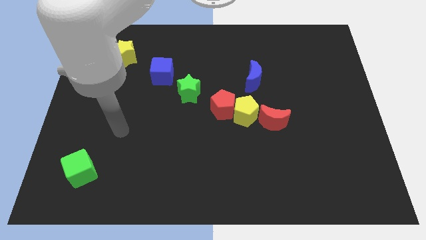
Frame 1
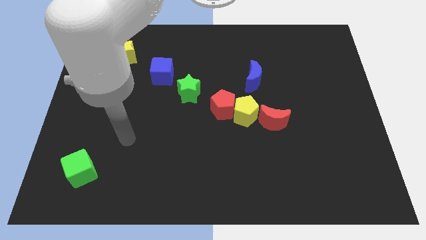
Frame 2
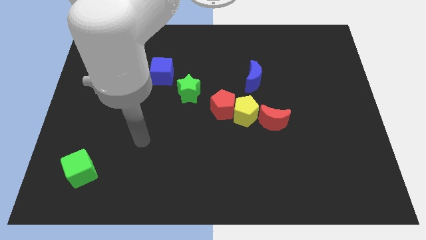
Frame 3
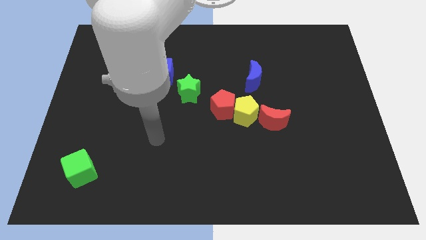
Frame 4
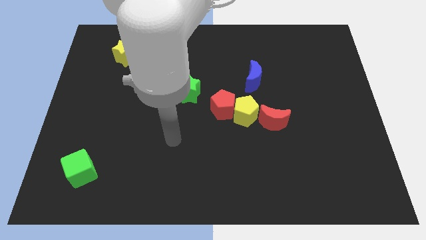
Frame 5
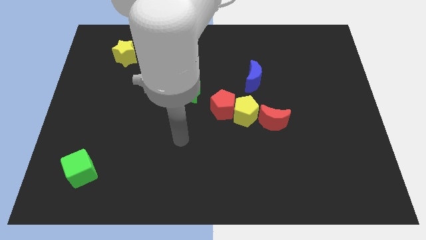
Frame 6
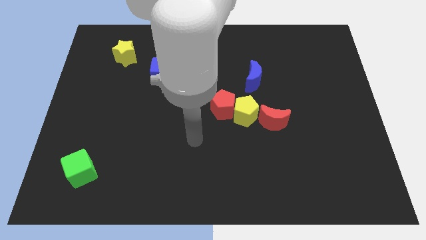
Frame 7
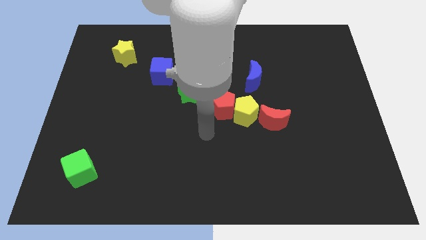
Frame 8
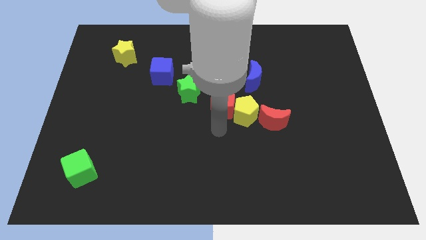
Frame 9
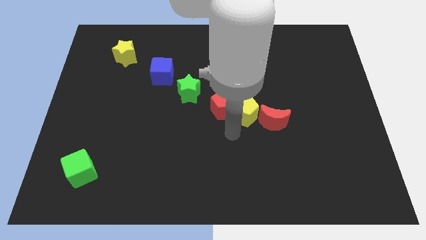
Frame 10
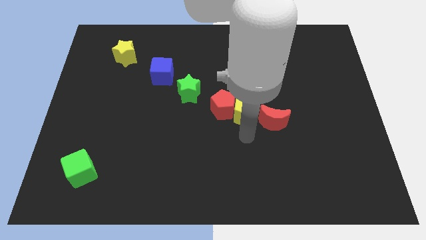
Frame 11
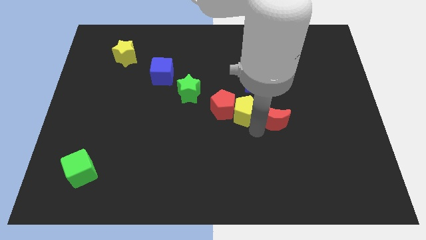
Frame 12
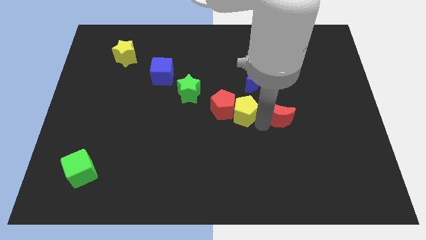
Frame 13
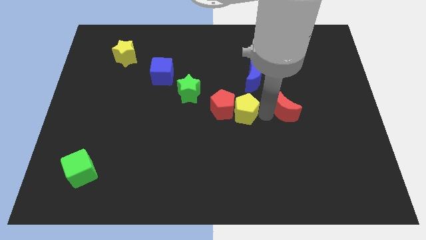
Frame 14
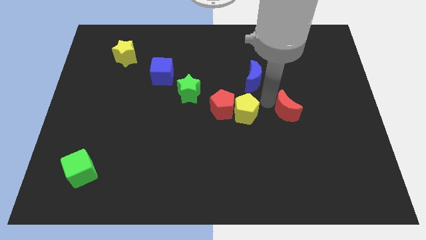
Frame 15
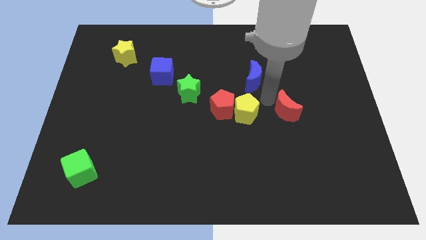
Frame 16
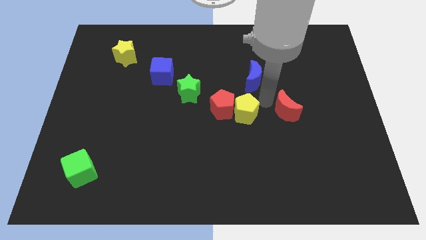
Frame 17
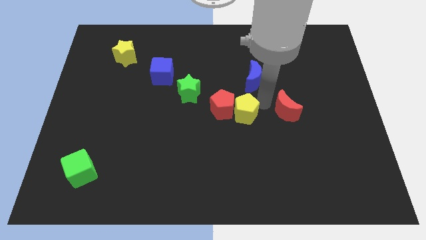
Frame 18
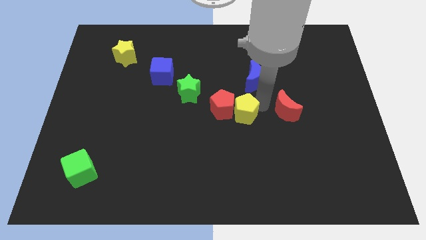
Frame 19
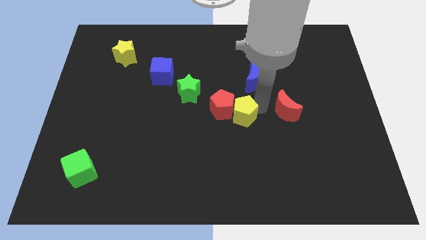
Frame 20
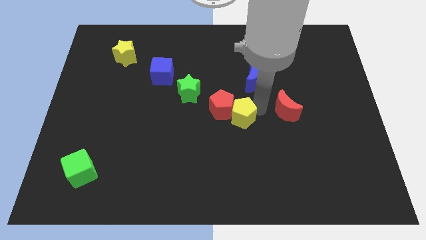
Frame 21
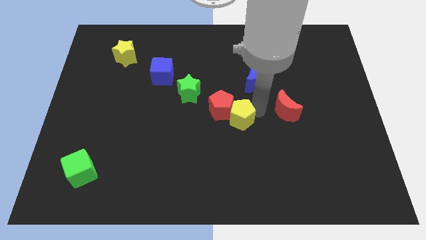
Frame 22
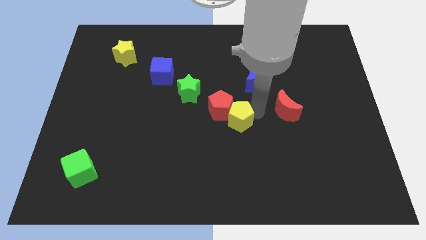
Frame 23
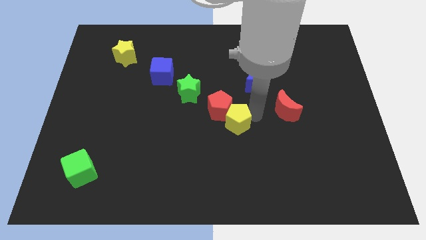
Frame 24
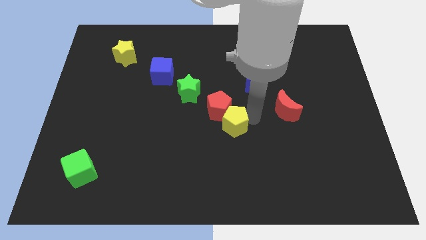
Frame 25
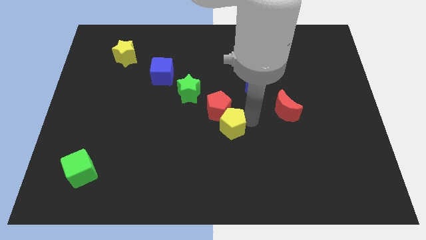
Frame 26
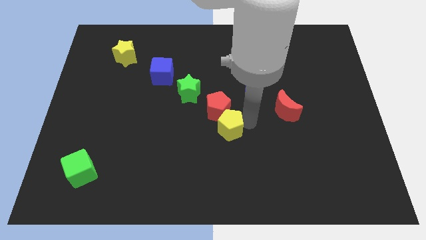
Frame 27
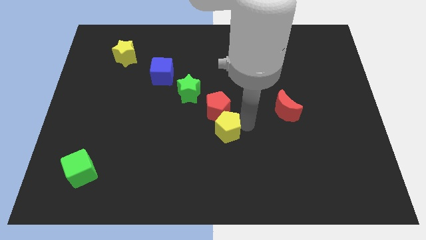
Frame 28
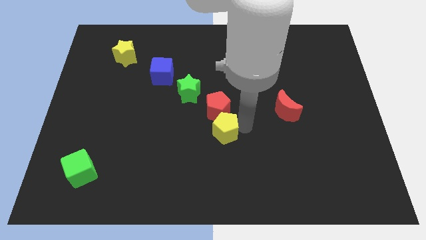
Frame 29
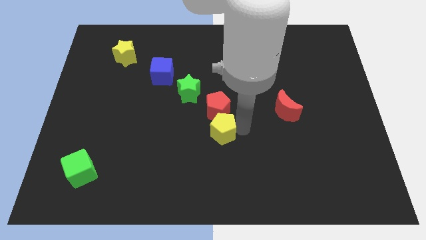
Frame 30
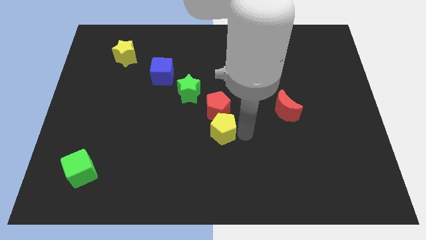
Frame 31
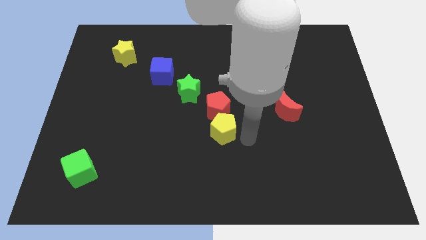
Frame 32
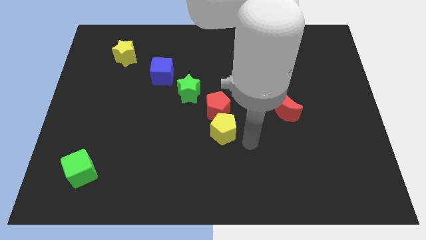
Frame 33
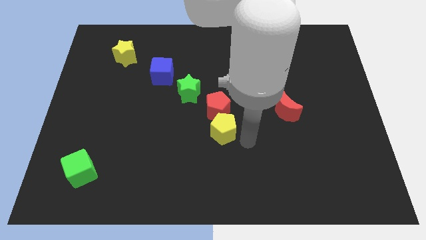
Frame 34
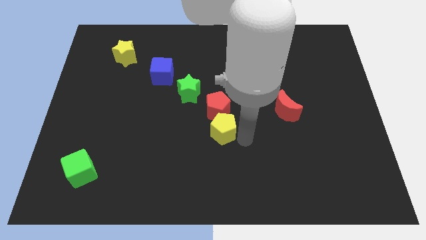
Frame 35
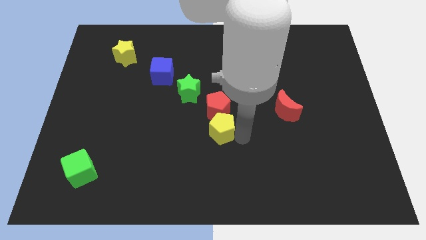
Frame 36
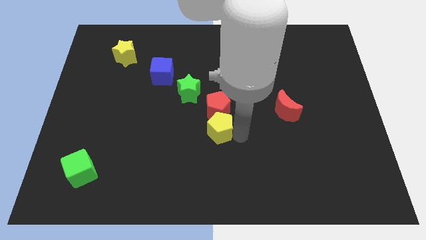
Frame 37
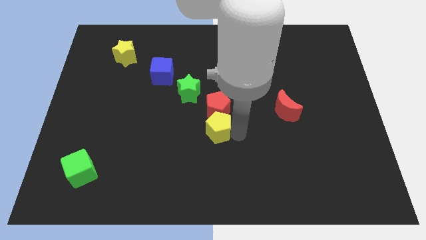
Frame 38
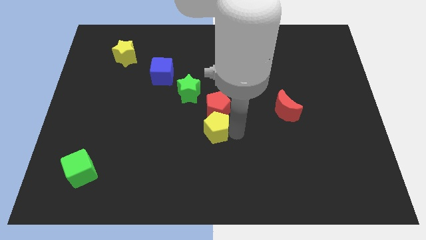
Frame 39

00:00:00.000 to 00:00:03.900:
move the yellow pentagon away from the red pentagon and red moon

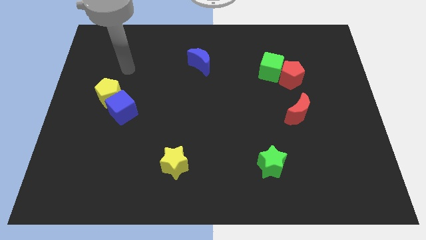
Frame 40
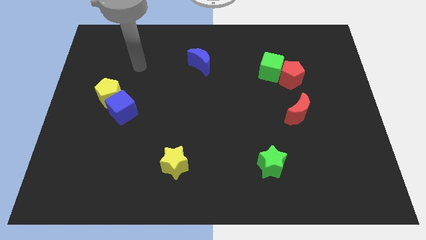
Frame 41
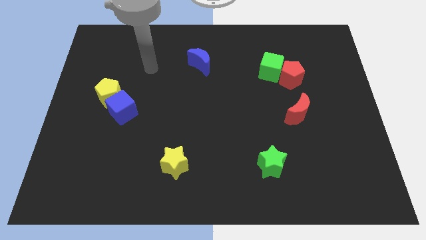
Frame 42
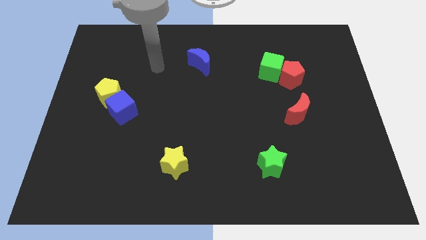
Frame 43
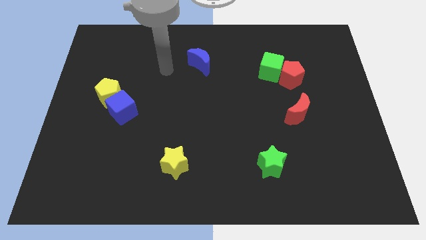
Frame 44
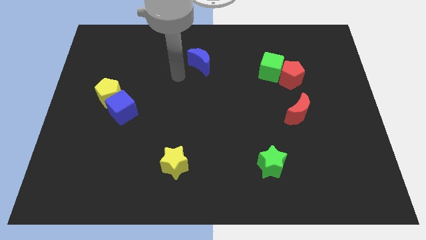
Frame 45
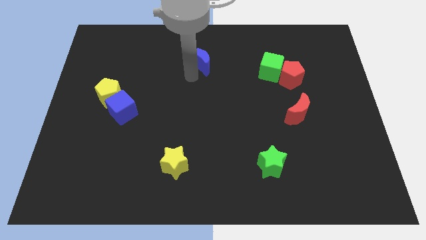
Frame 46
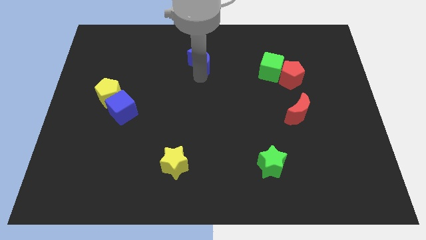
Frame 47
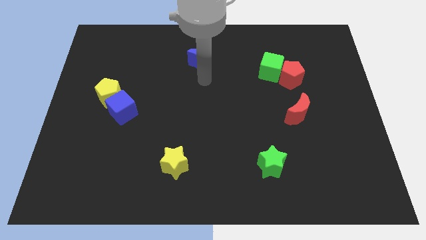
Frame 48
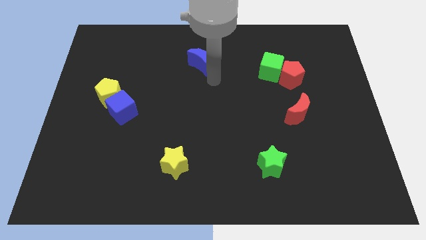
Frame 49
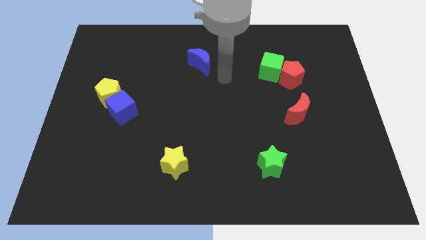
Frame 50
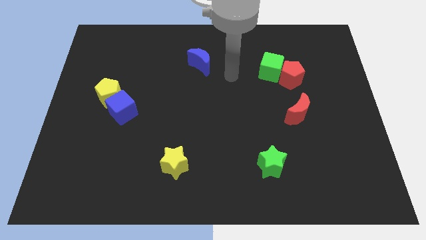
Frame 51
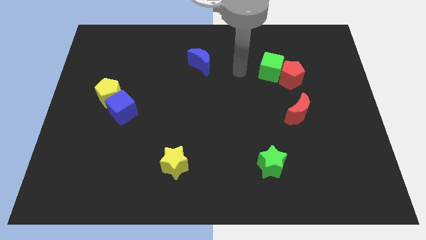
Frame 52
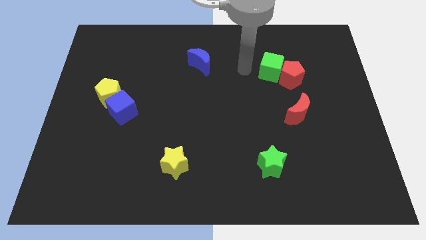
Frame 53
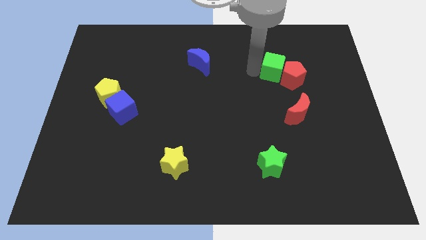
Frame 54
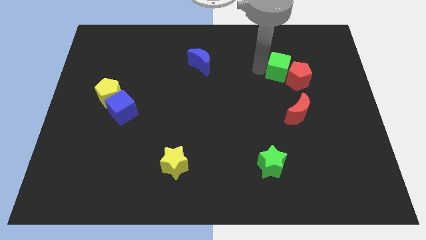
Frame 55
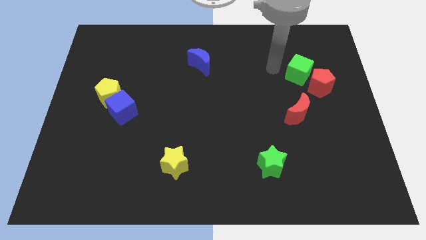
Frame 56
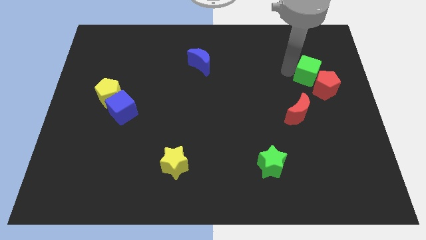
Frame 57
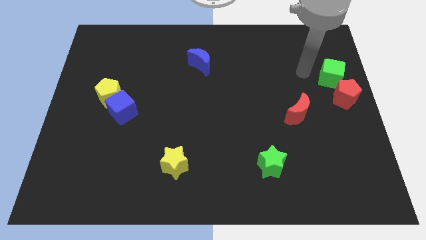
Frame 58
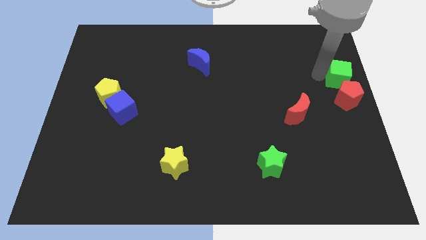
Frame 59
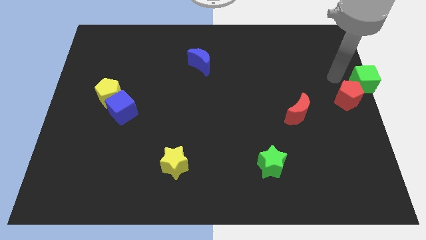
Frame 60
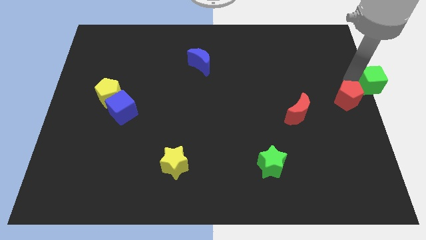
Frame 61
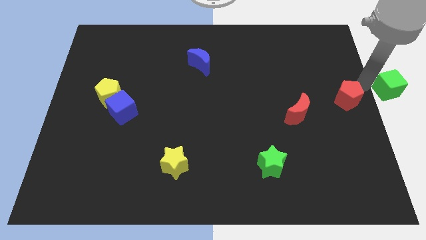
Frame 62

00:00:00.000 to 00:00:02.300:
move the red pentagon away from the green cube

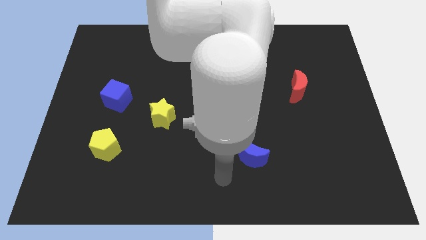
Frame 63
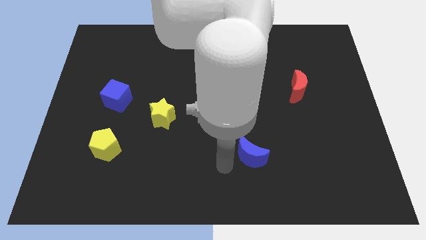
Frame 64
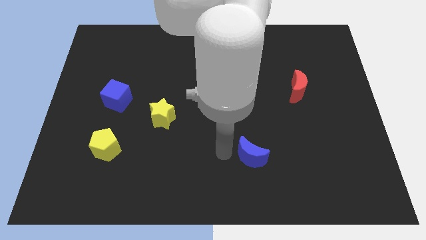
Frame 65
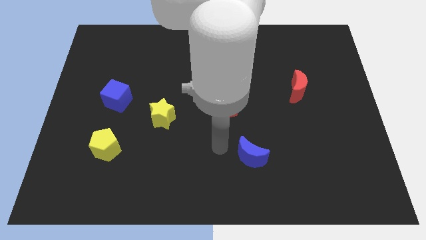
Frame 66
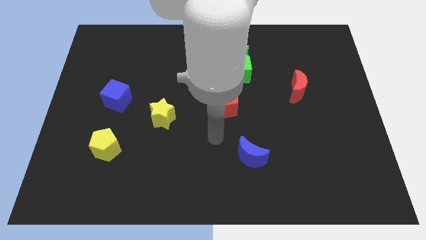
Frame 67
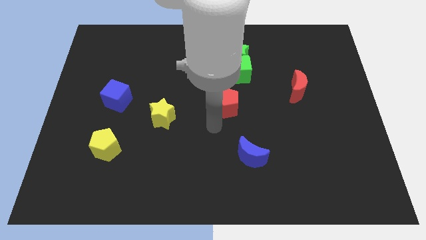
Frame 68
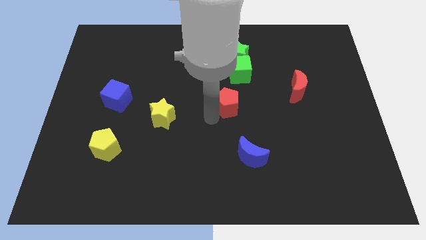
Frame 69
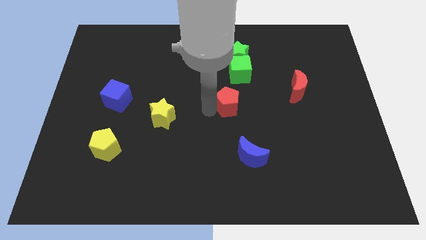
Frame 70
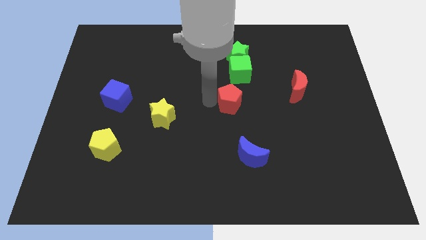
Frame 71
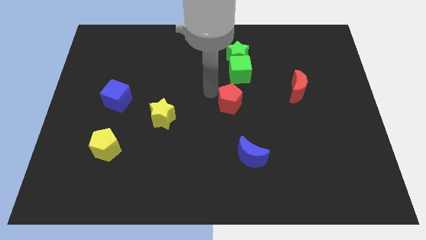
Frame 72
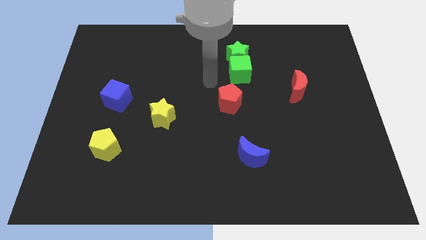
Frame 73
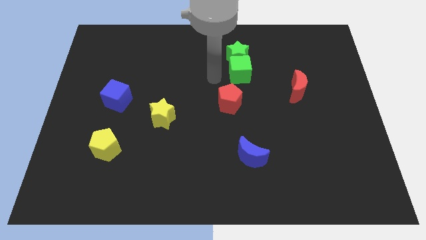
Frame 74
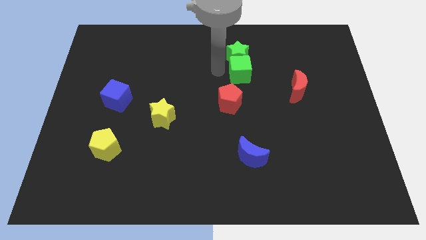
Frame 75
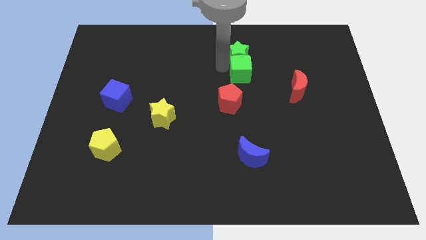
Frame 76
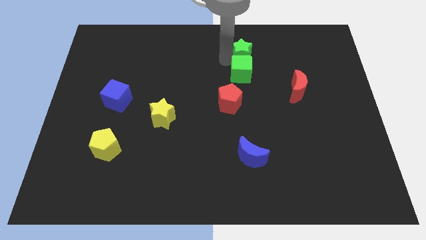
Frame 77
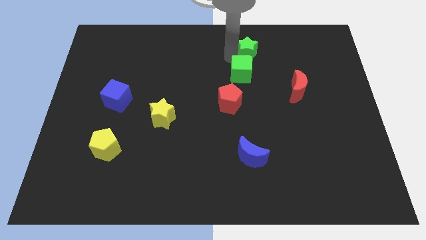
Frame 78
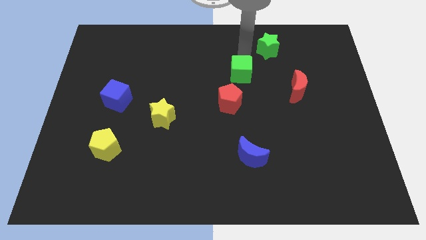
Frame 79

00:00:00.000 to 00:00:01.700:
move the green cube away from the green star

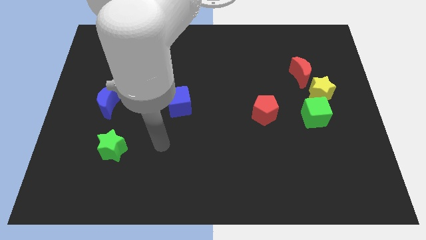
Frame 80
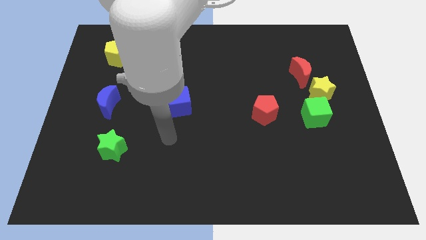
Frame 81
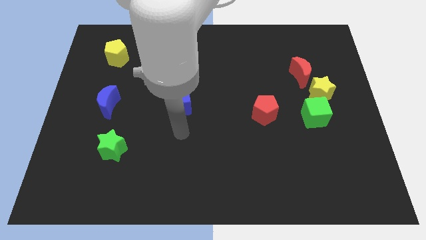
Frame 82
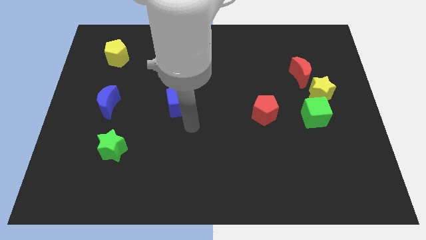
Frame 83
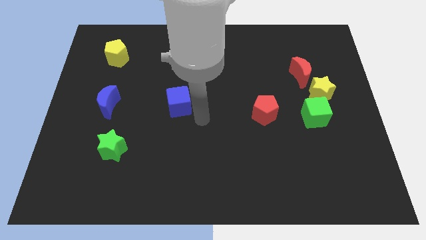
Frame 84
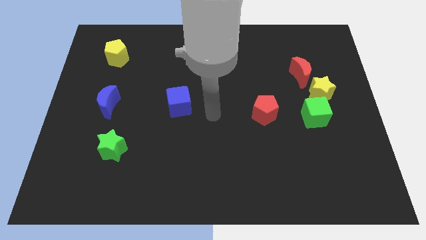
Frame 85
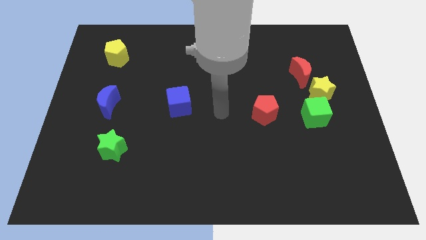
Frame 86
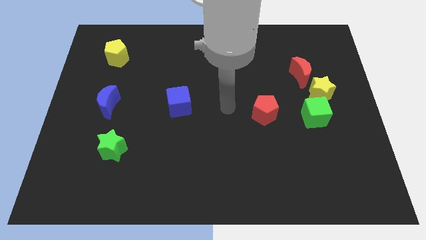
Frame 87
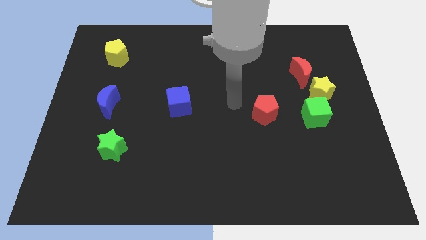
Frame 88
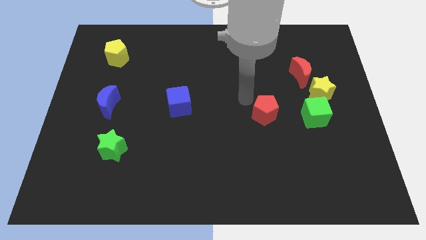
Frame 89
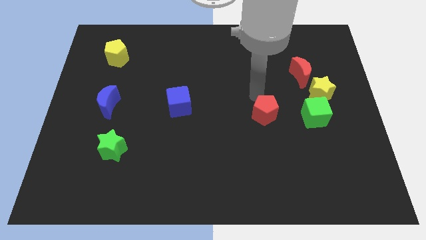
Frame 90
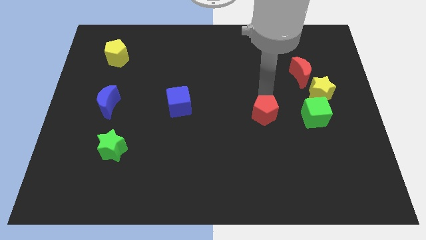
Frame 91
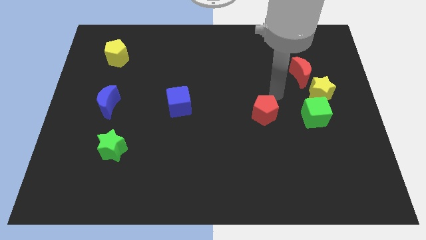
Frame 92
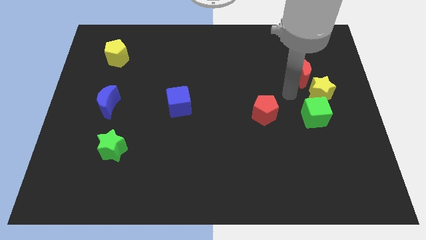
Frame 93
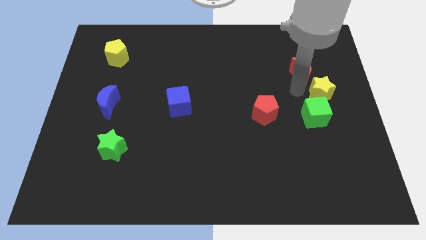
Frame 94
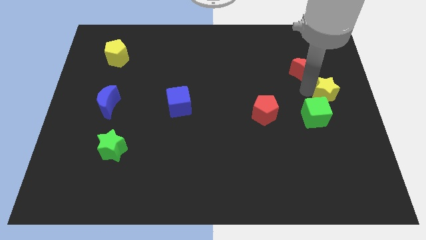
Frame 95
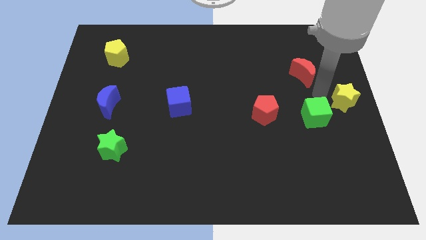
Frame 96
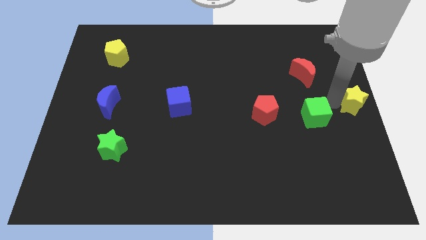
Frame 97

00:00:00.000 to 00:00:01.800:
move the green cube away from the yellow star
